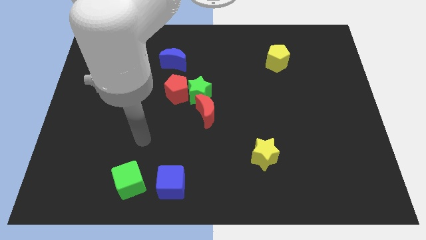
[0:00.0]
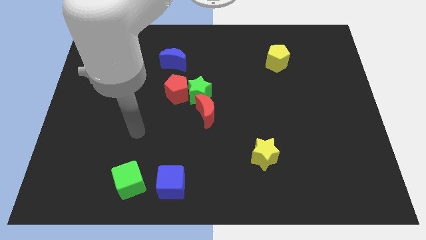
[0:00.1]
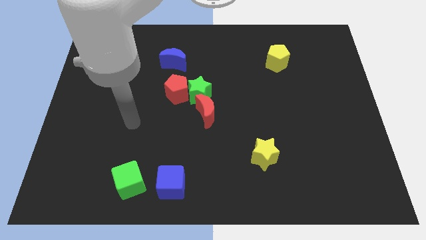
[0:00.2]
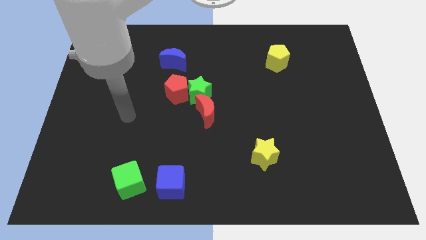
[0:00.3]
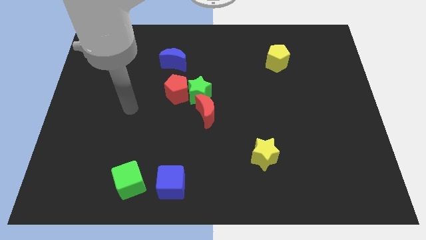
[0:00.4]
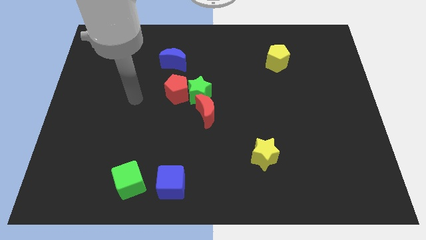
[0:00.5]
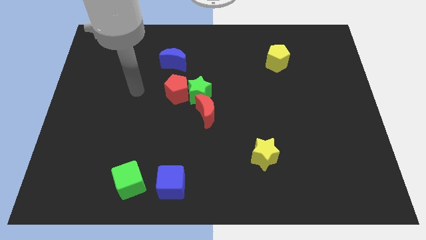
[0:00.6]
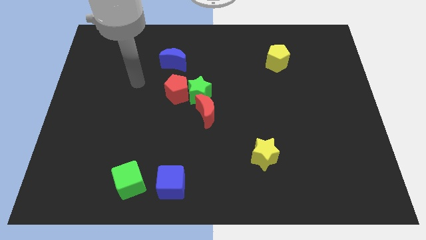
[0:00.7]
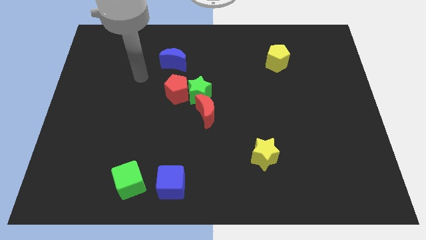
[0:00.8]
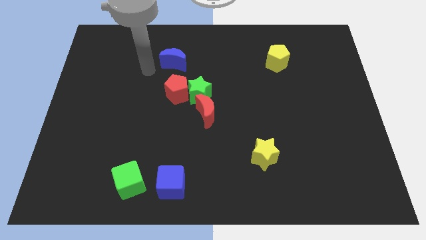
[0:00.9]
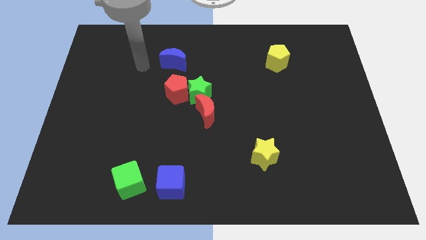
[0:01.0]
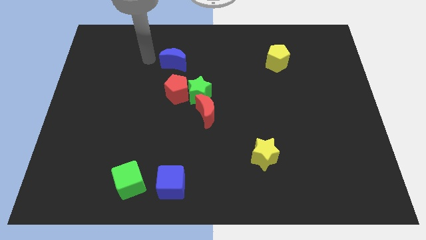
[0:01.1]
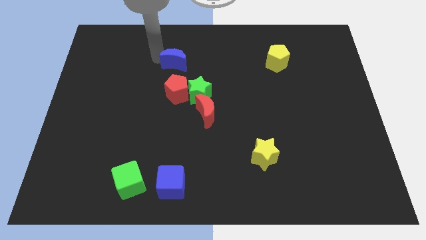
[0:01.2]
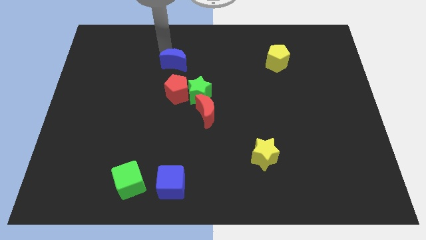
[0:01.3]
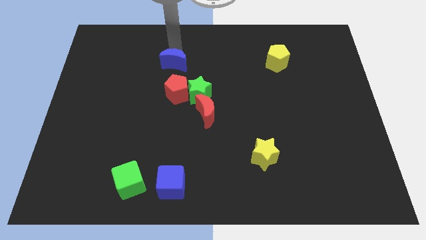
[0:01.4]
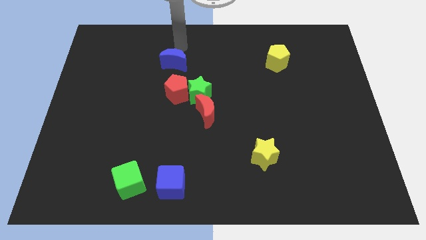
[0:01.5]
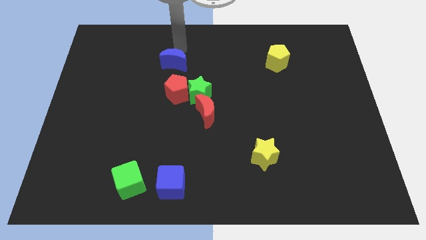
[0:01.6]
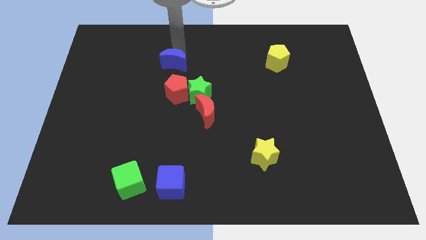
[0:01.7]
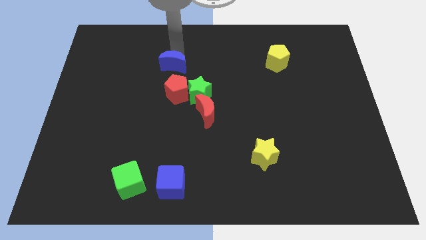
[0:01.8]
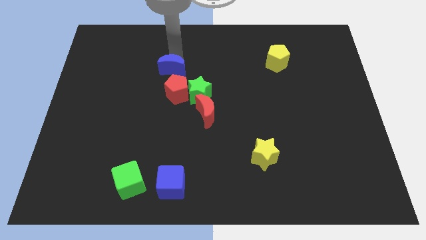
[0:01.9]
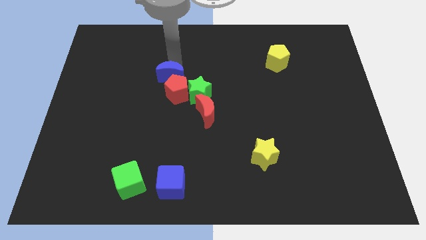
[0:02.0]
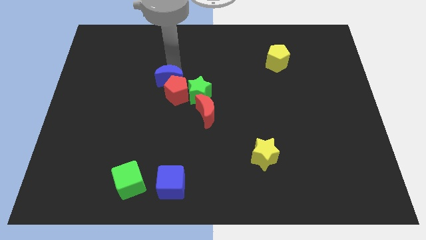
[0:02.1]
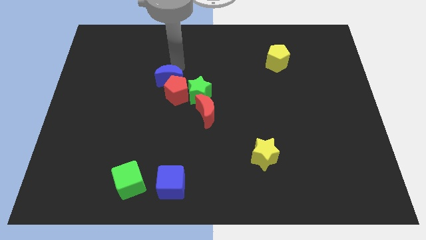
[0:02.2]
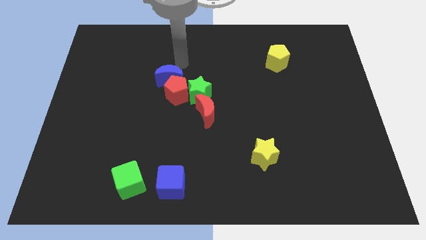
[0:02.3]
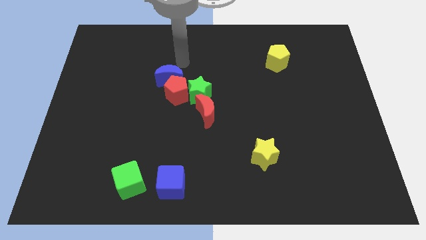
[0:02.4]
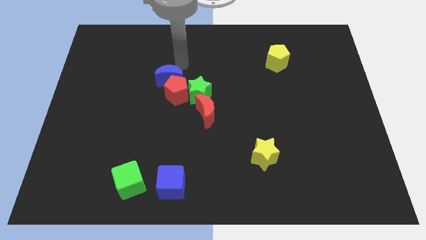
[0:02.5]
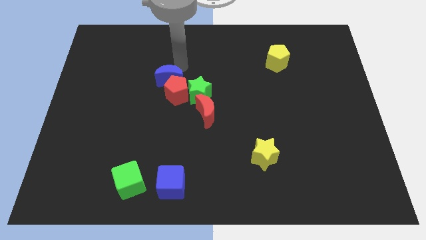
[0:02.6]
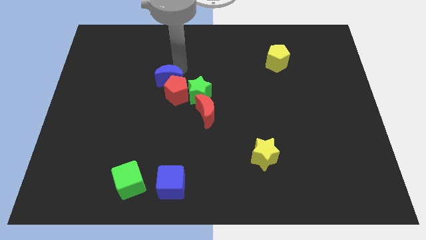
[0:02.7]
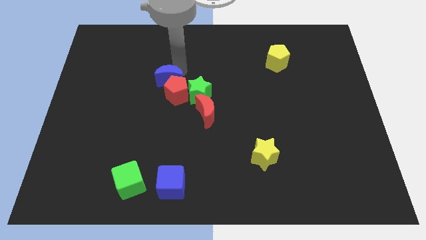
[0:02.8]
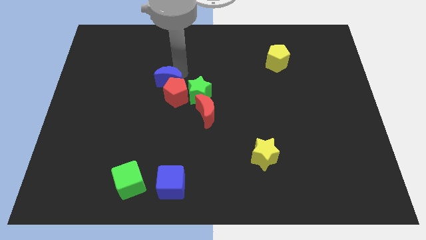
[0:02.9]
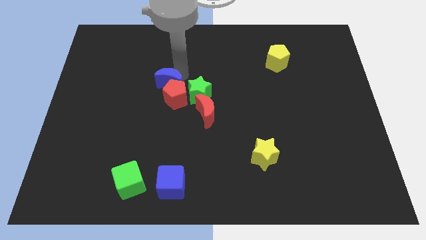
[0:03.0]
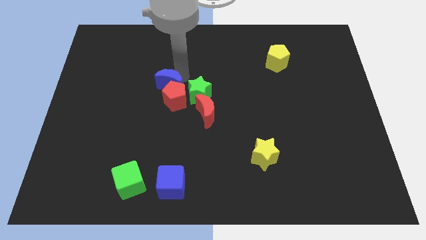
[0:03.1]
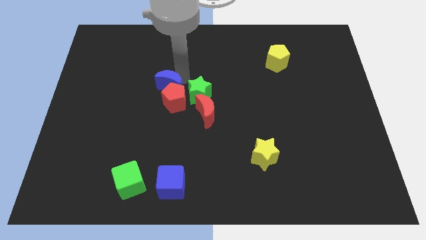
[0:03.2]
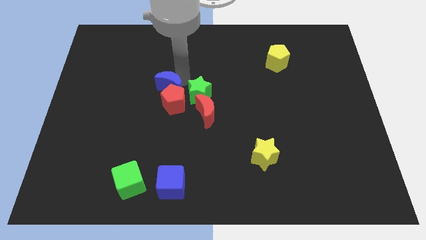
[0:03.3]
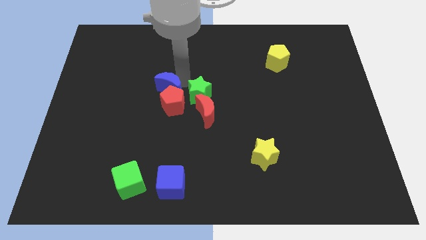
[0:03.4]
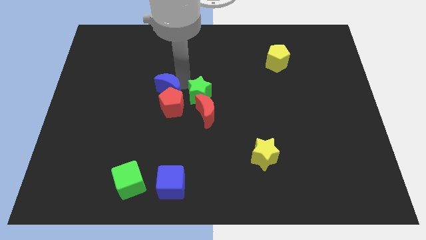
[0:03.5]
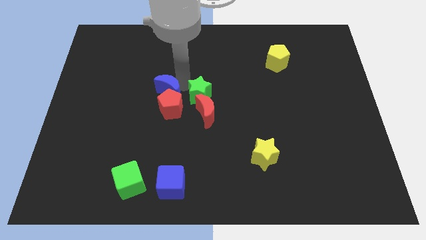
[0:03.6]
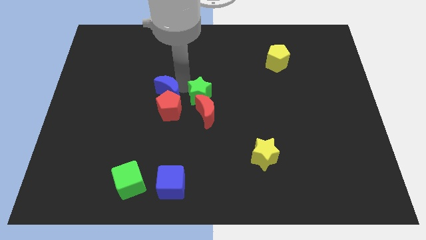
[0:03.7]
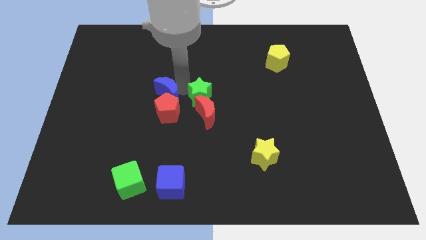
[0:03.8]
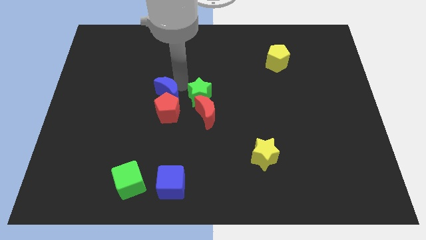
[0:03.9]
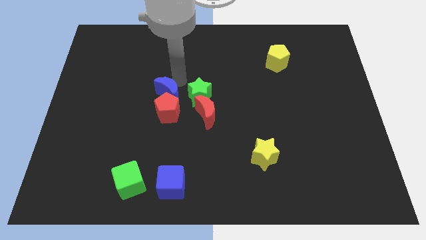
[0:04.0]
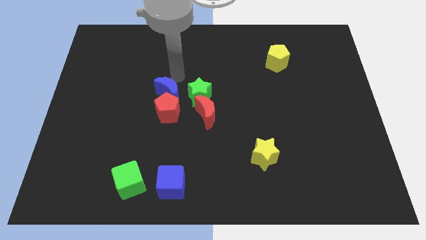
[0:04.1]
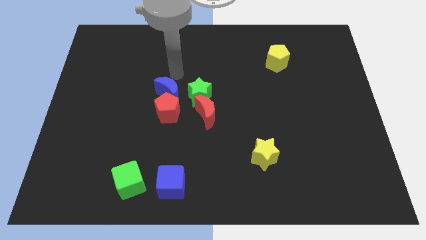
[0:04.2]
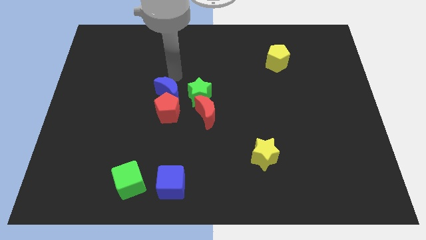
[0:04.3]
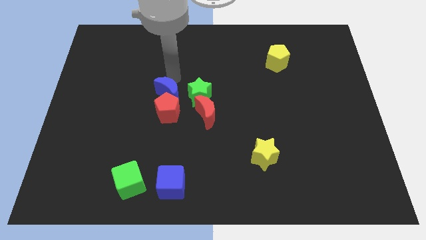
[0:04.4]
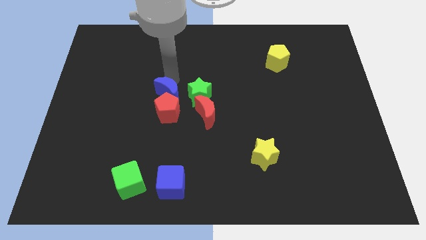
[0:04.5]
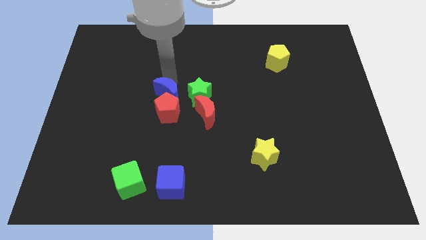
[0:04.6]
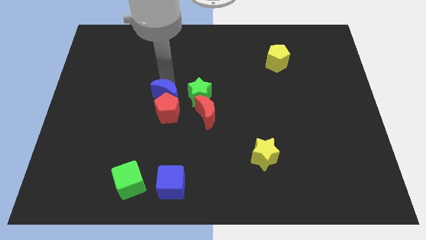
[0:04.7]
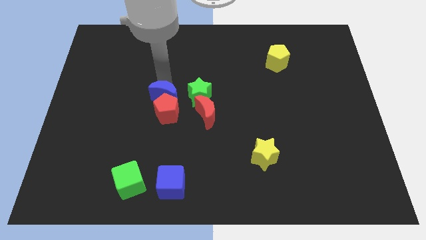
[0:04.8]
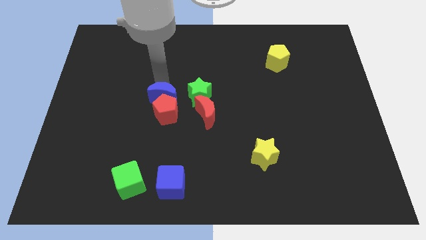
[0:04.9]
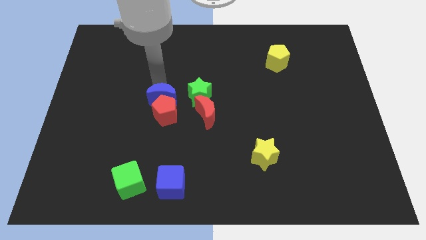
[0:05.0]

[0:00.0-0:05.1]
push the blue moon just left of the red moon

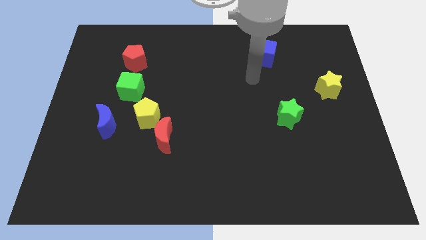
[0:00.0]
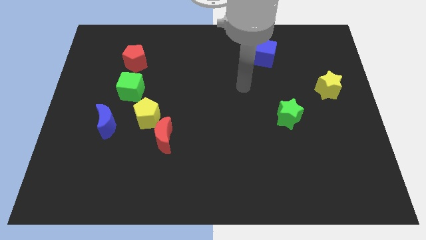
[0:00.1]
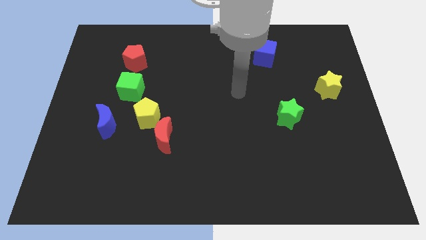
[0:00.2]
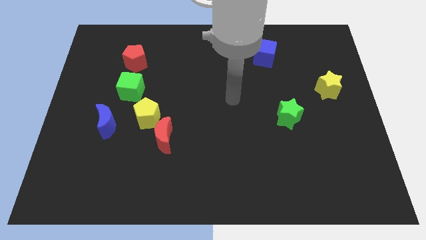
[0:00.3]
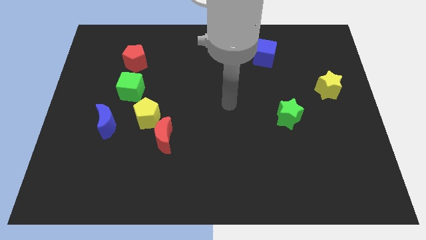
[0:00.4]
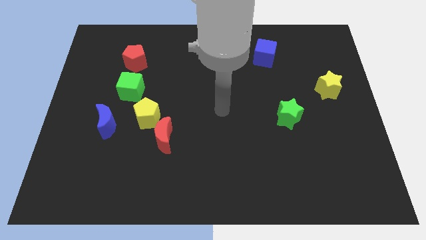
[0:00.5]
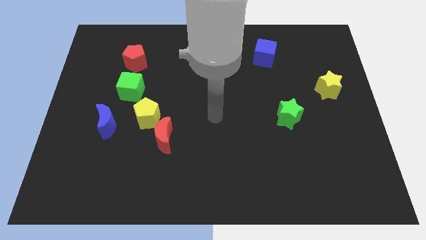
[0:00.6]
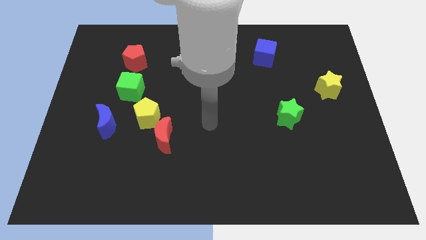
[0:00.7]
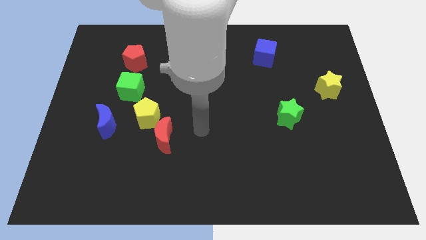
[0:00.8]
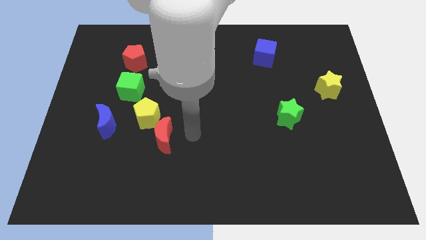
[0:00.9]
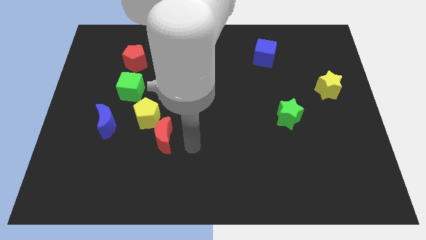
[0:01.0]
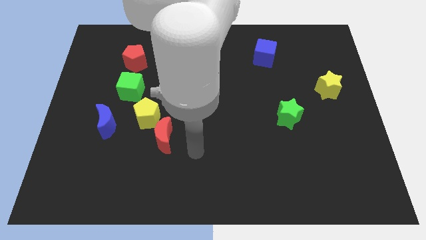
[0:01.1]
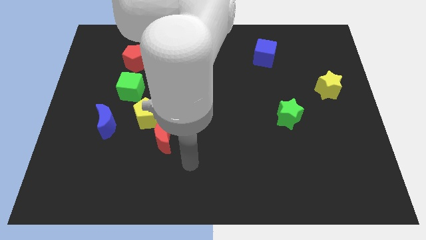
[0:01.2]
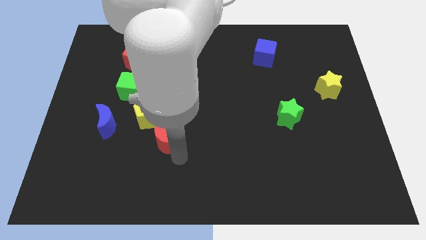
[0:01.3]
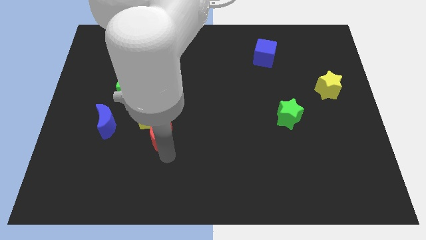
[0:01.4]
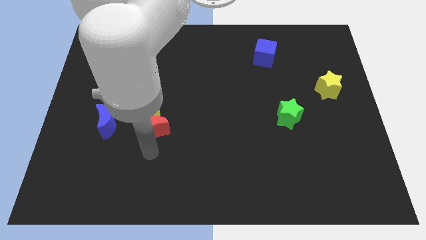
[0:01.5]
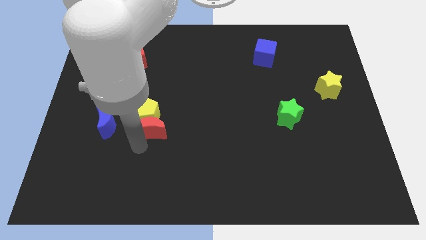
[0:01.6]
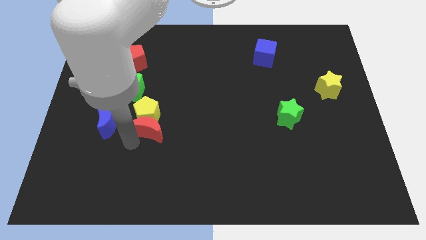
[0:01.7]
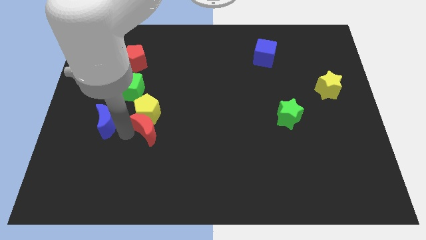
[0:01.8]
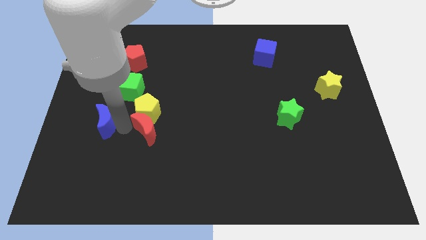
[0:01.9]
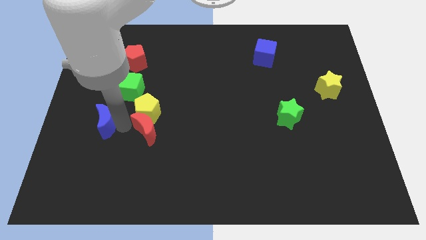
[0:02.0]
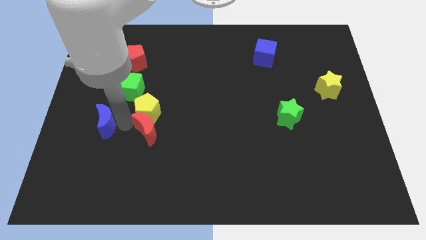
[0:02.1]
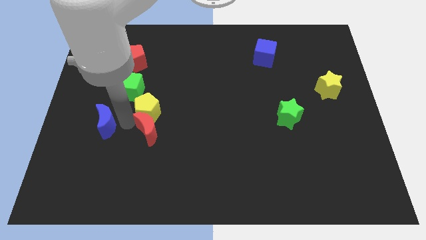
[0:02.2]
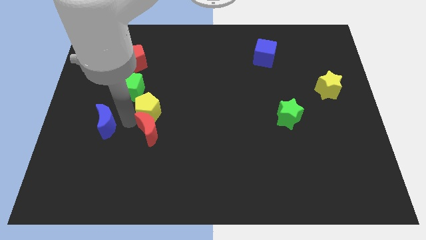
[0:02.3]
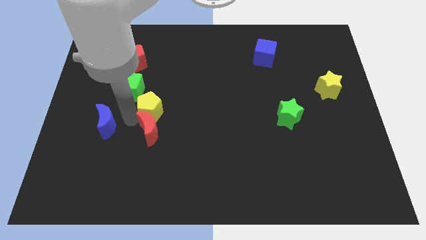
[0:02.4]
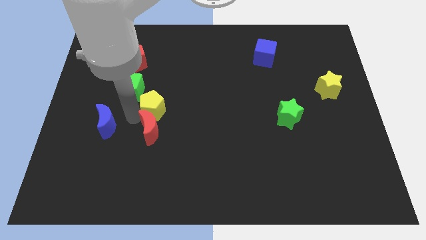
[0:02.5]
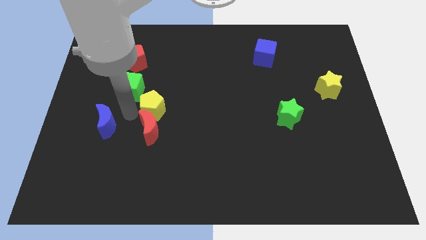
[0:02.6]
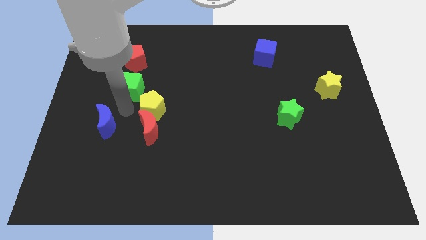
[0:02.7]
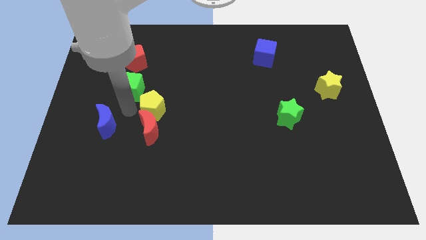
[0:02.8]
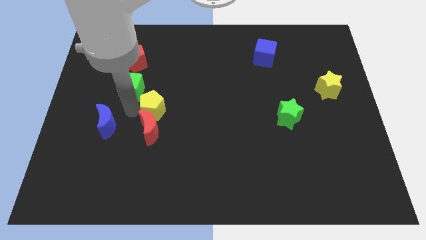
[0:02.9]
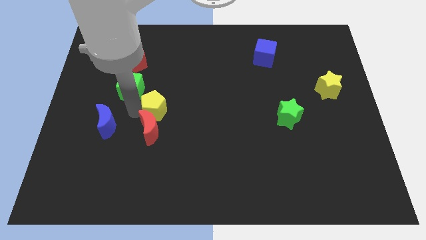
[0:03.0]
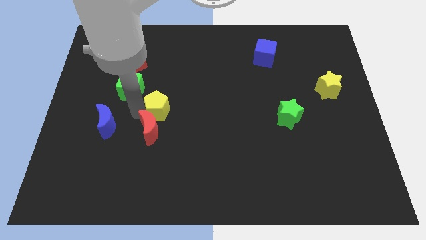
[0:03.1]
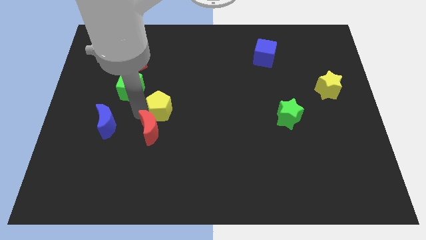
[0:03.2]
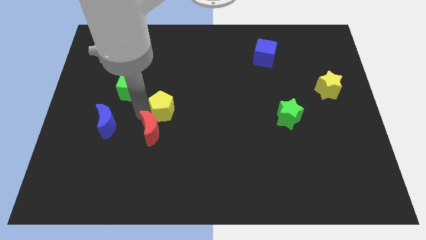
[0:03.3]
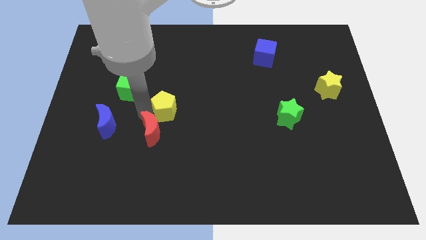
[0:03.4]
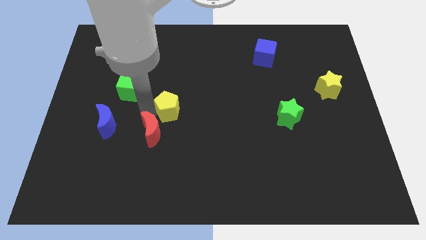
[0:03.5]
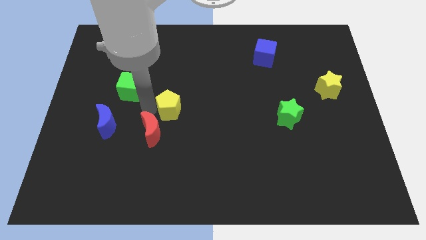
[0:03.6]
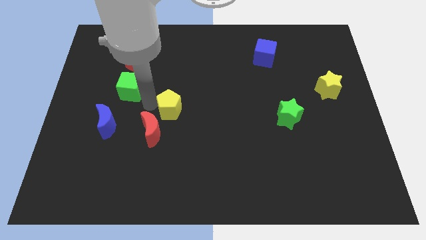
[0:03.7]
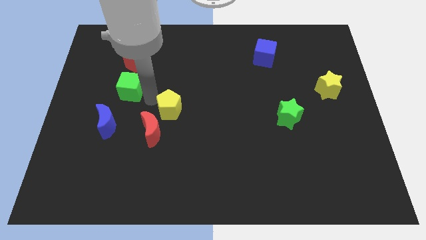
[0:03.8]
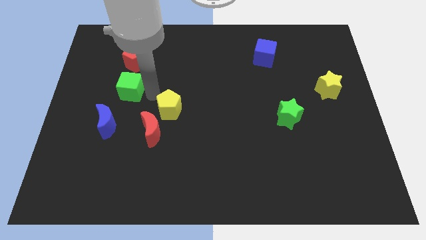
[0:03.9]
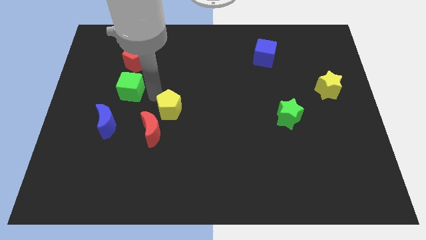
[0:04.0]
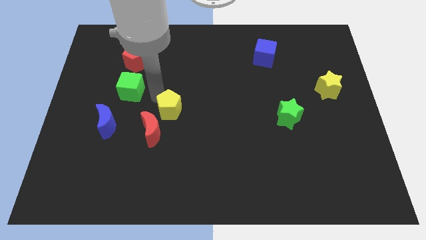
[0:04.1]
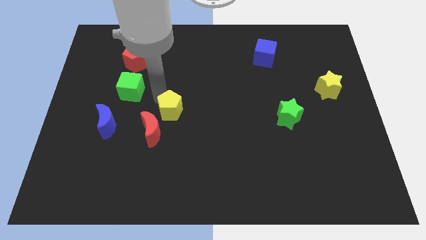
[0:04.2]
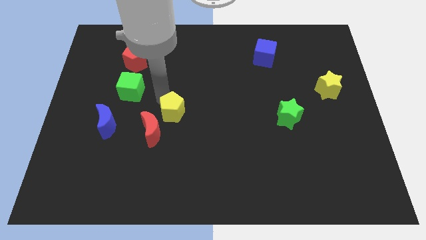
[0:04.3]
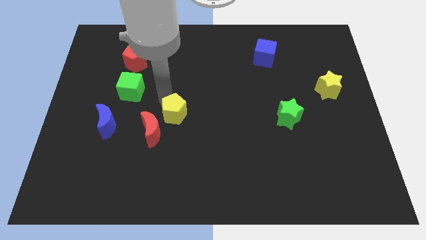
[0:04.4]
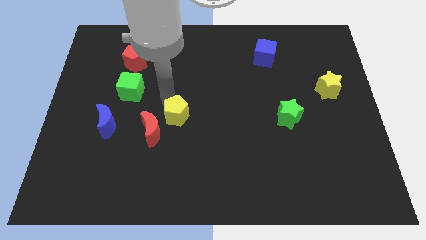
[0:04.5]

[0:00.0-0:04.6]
slide the yellow pentagon to the right of the red moon
